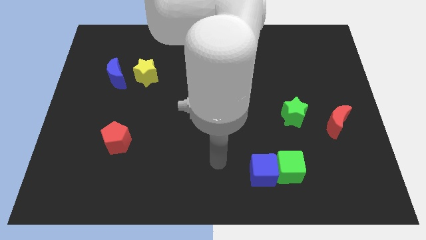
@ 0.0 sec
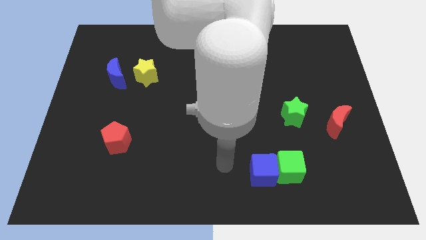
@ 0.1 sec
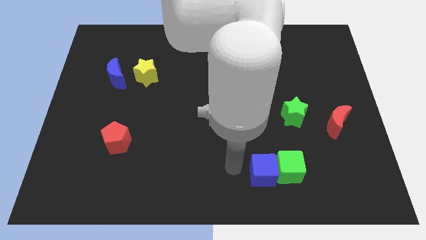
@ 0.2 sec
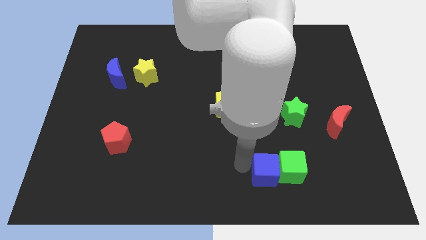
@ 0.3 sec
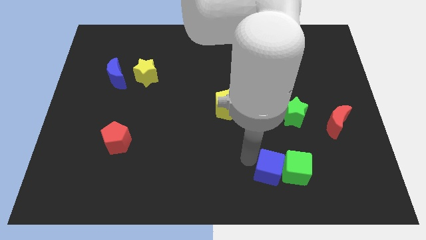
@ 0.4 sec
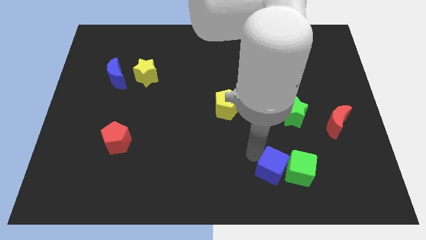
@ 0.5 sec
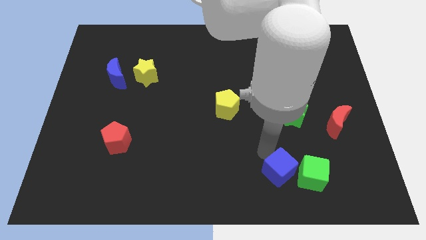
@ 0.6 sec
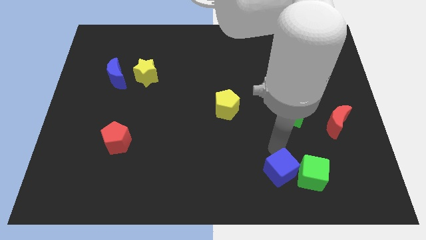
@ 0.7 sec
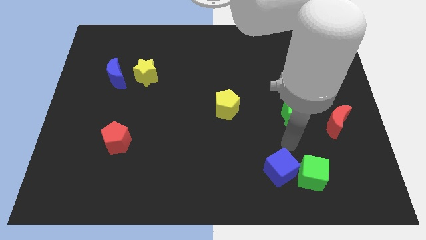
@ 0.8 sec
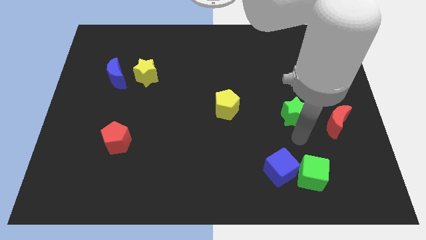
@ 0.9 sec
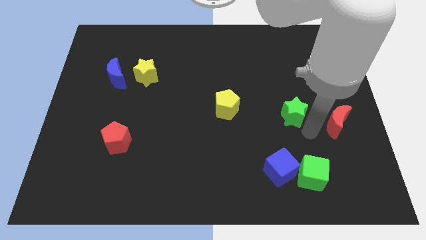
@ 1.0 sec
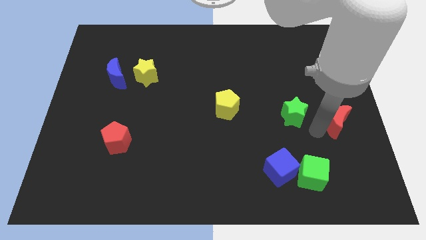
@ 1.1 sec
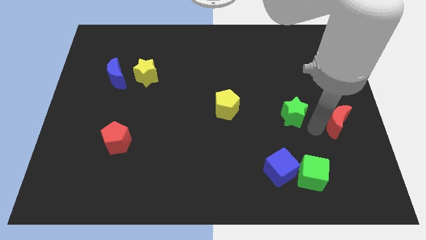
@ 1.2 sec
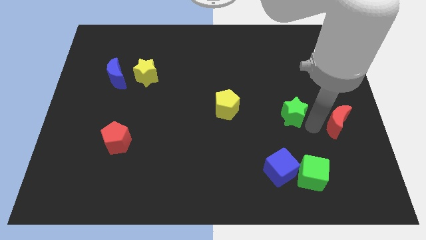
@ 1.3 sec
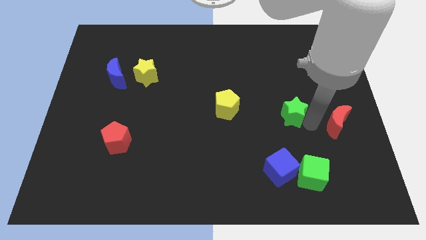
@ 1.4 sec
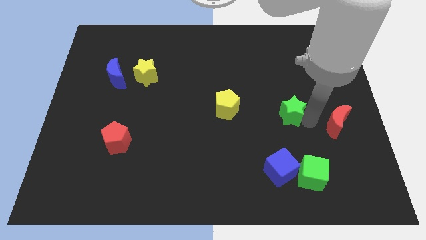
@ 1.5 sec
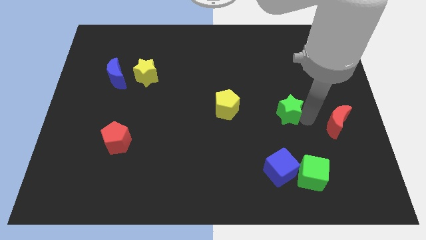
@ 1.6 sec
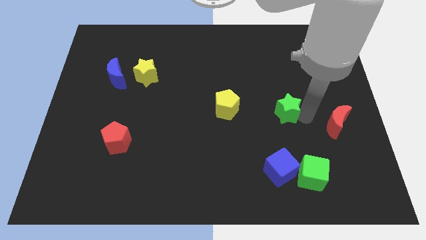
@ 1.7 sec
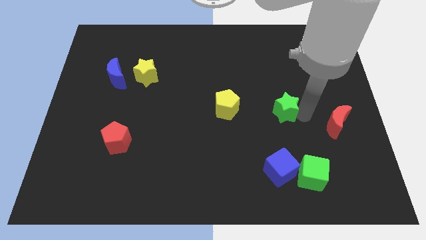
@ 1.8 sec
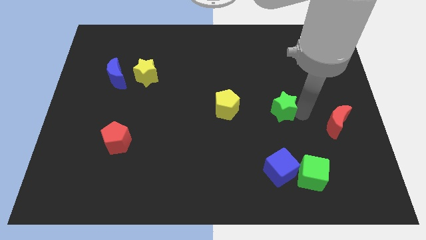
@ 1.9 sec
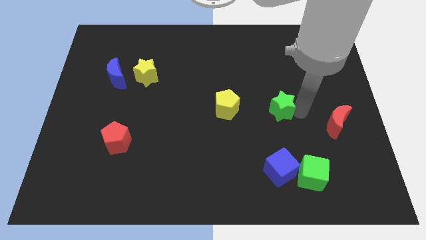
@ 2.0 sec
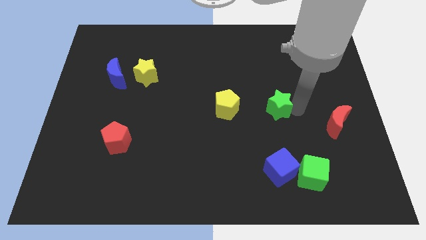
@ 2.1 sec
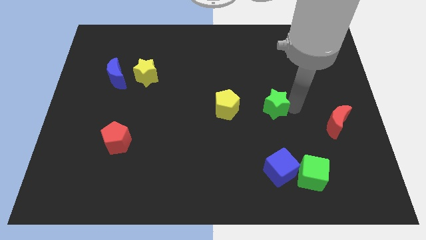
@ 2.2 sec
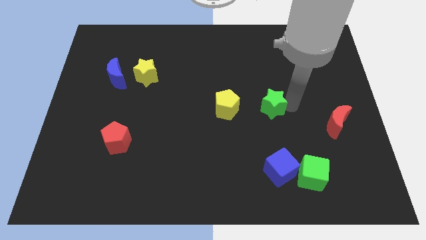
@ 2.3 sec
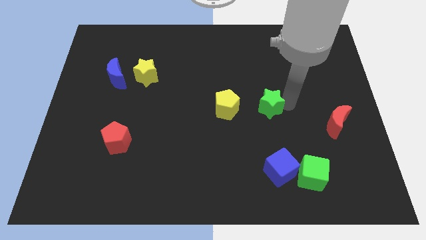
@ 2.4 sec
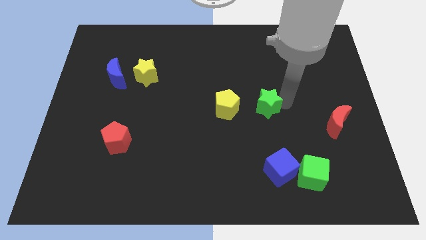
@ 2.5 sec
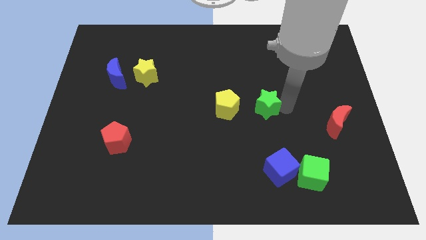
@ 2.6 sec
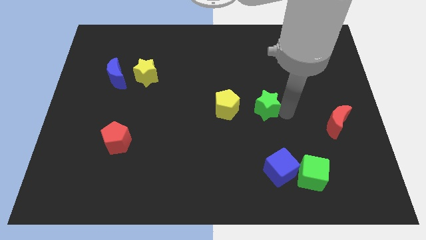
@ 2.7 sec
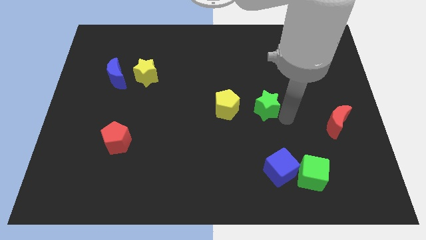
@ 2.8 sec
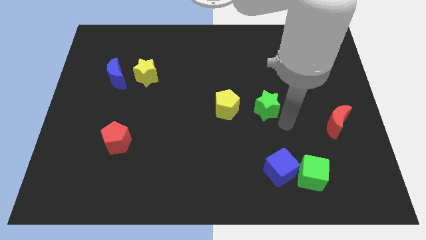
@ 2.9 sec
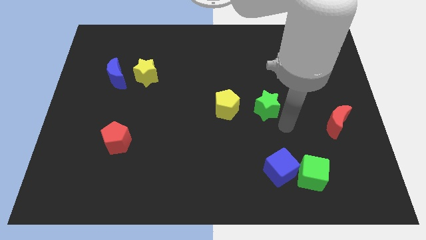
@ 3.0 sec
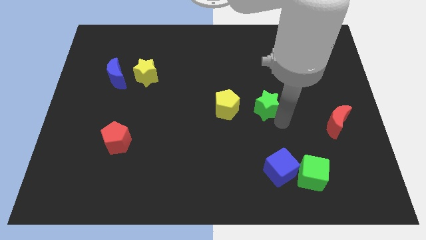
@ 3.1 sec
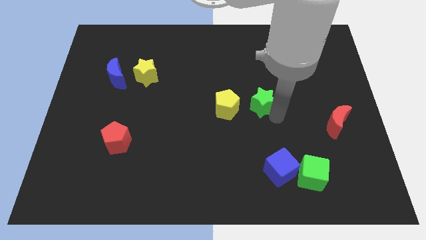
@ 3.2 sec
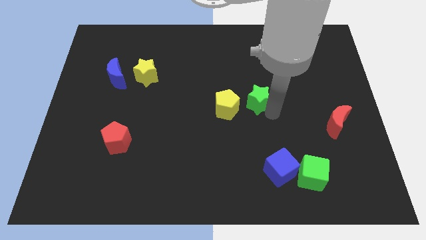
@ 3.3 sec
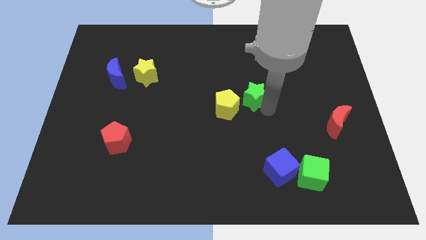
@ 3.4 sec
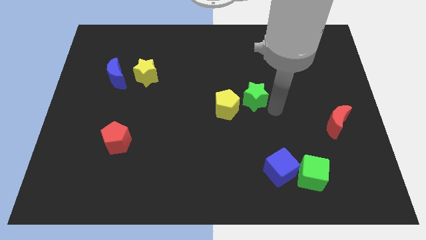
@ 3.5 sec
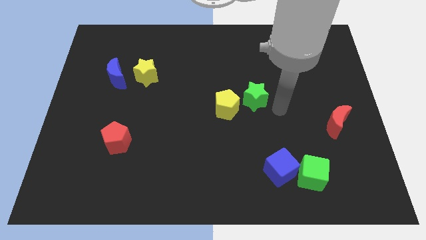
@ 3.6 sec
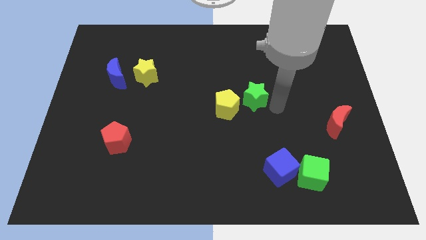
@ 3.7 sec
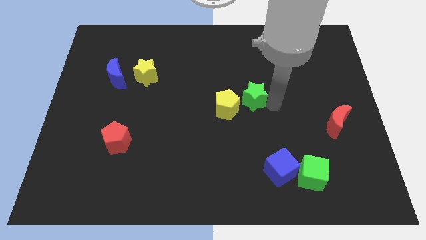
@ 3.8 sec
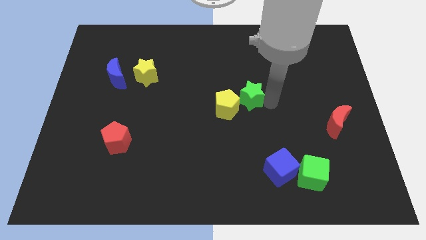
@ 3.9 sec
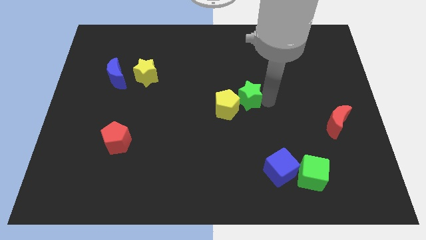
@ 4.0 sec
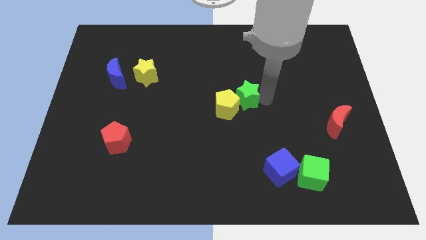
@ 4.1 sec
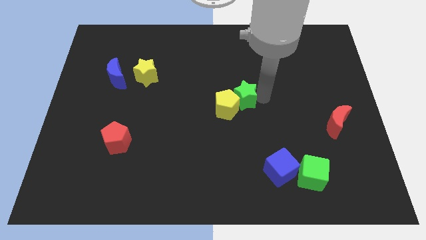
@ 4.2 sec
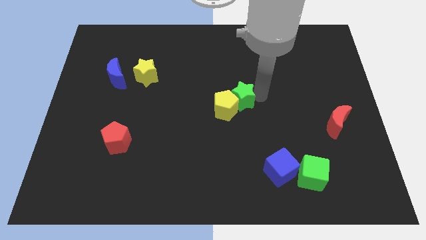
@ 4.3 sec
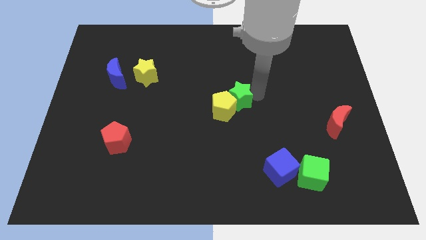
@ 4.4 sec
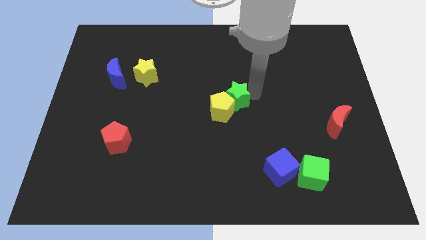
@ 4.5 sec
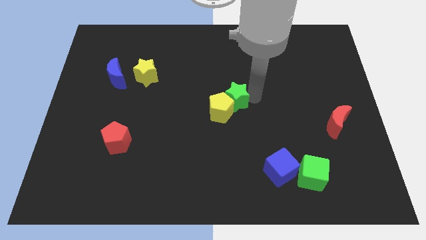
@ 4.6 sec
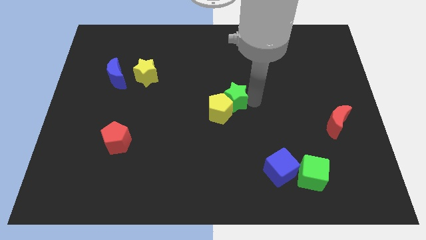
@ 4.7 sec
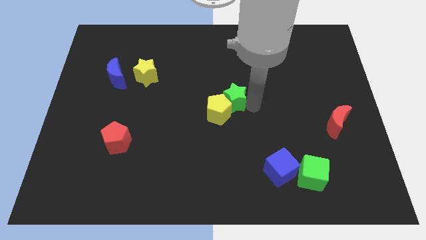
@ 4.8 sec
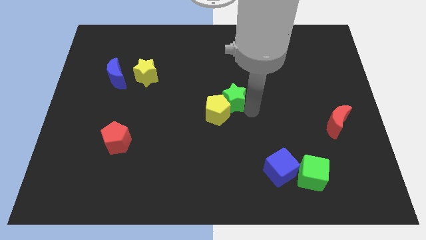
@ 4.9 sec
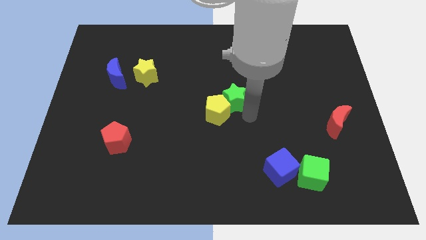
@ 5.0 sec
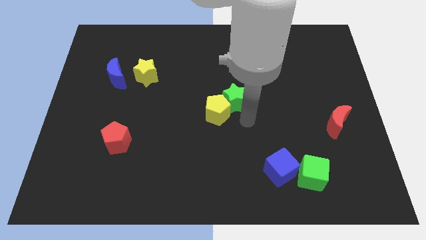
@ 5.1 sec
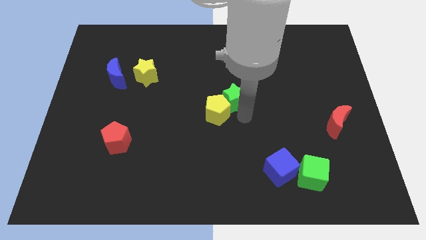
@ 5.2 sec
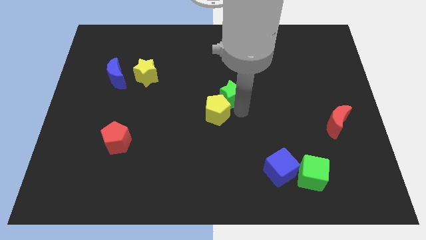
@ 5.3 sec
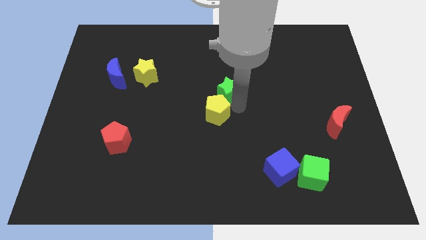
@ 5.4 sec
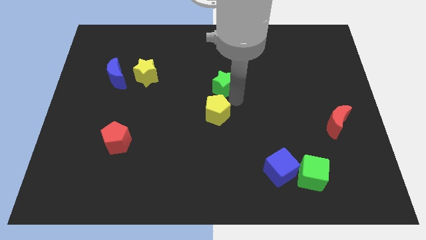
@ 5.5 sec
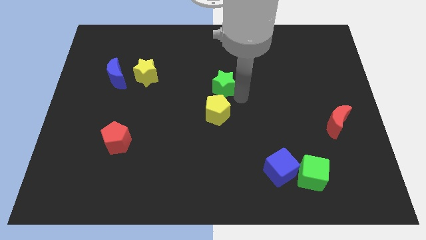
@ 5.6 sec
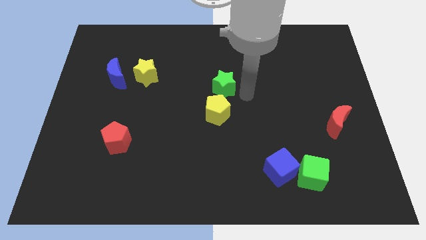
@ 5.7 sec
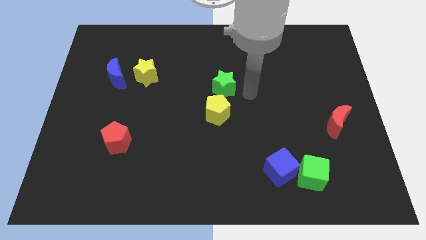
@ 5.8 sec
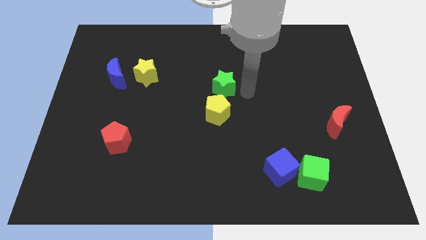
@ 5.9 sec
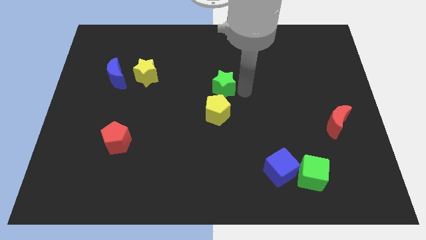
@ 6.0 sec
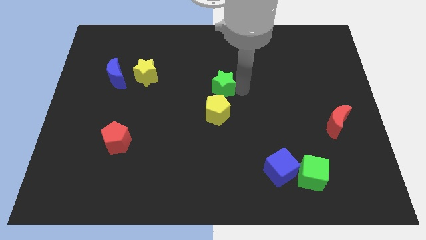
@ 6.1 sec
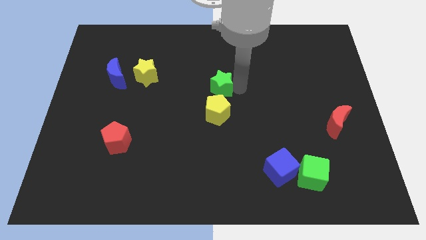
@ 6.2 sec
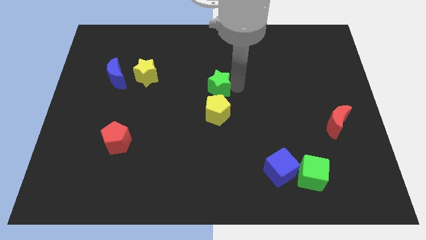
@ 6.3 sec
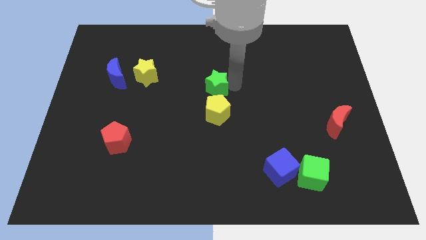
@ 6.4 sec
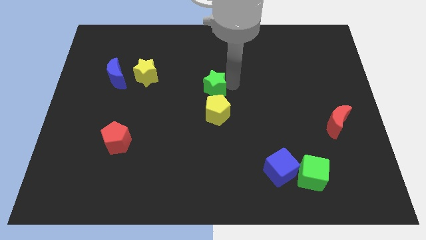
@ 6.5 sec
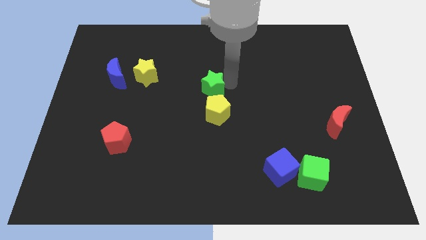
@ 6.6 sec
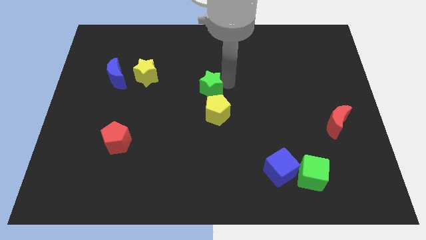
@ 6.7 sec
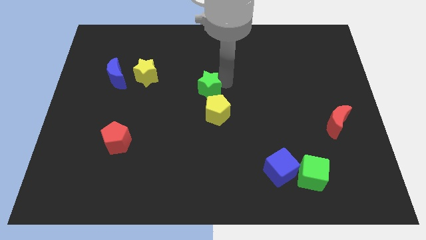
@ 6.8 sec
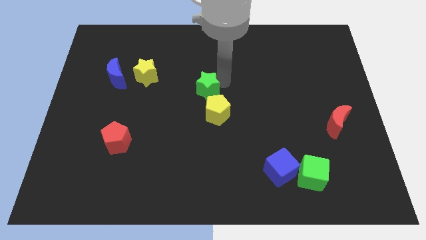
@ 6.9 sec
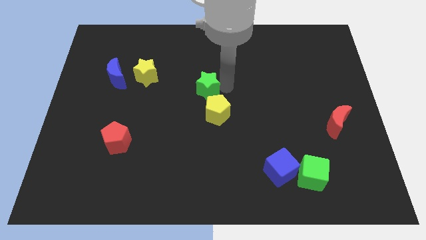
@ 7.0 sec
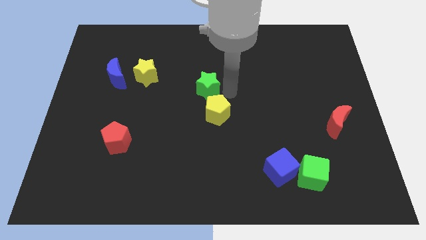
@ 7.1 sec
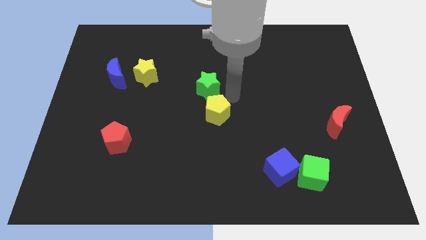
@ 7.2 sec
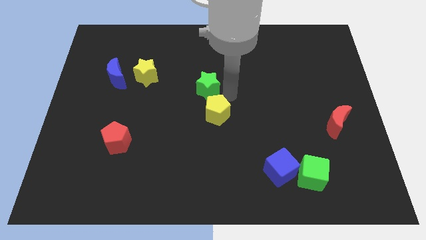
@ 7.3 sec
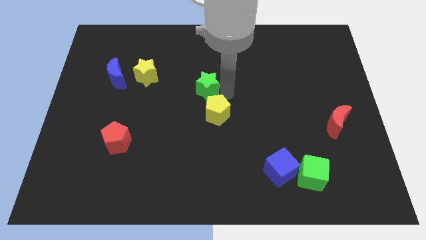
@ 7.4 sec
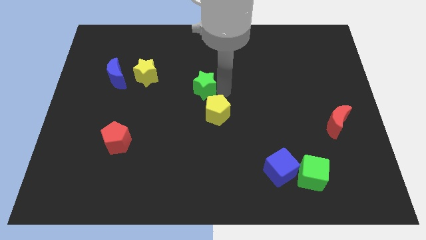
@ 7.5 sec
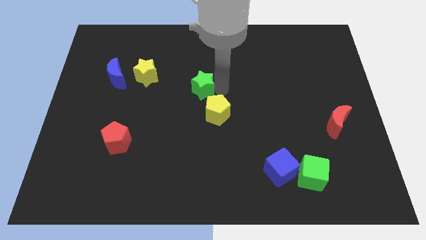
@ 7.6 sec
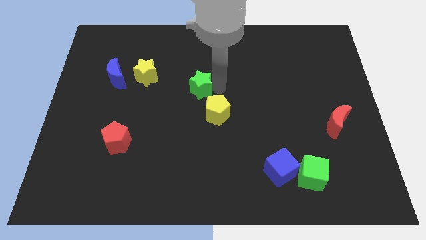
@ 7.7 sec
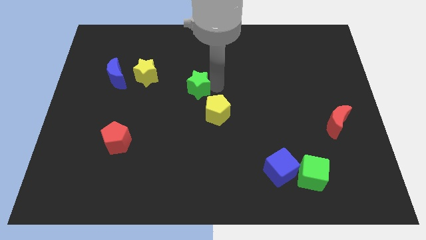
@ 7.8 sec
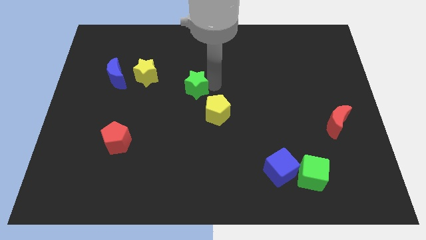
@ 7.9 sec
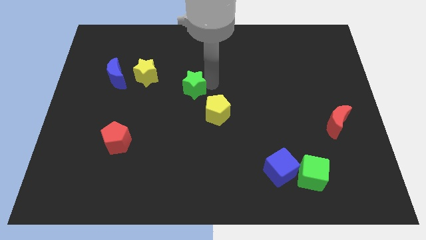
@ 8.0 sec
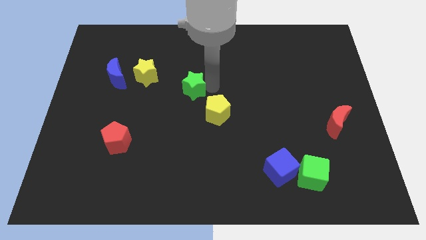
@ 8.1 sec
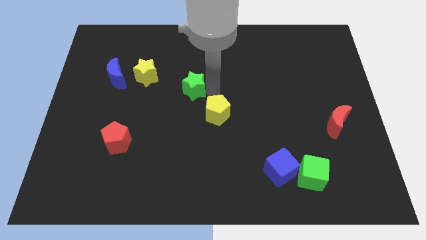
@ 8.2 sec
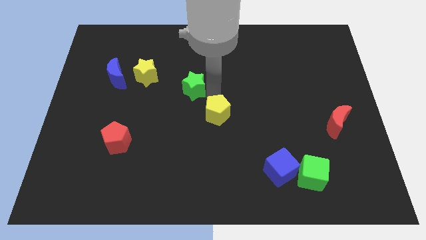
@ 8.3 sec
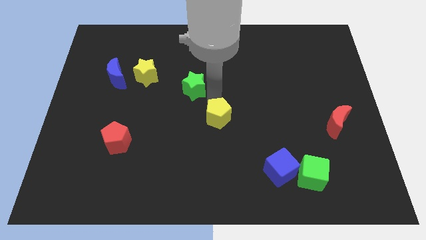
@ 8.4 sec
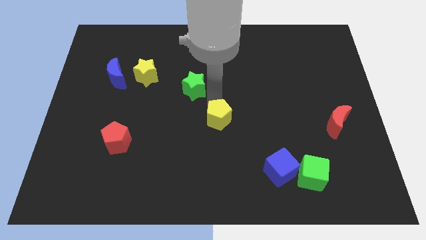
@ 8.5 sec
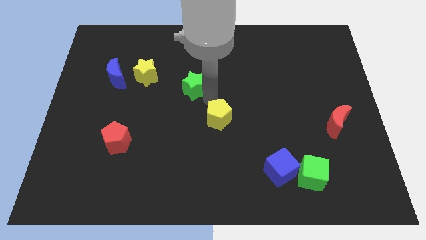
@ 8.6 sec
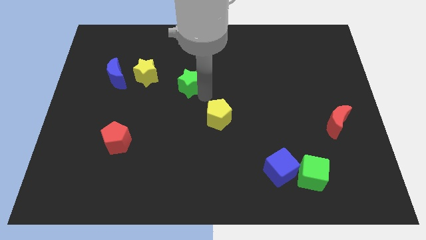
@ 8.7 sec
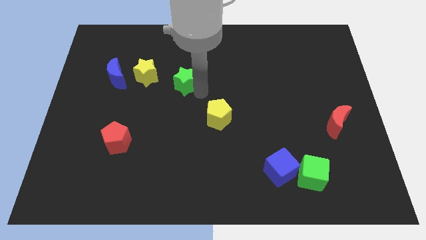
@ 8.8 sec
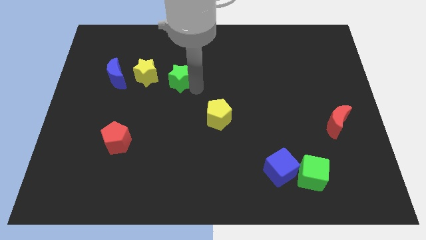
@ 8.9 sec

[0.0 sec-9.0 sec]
push the green star just right of the blue moon
